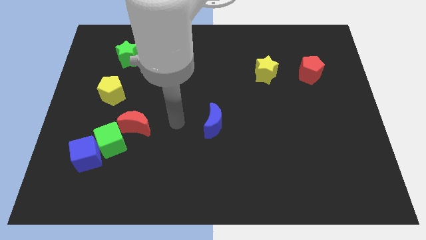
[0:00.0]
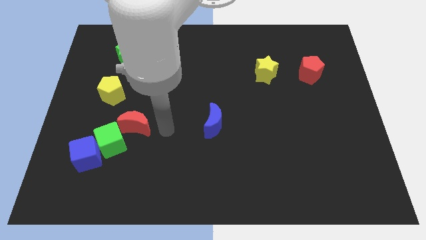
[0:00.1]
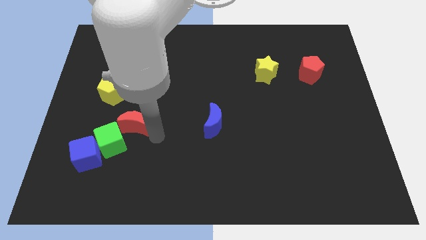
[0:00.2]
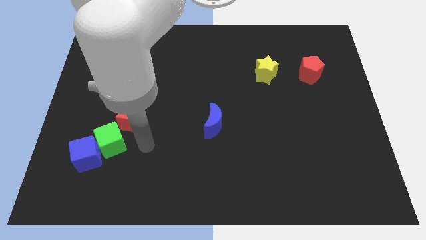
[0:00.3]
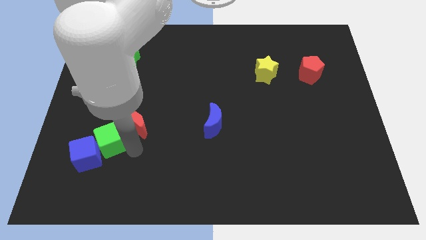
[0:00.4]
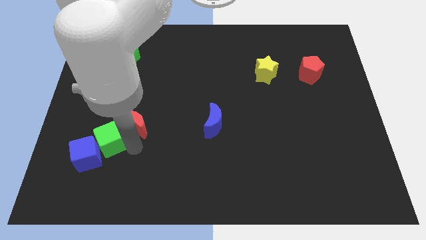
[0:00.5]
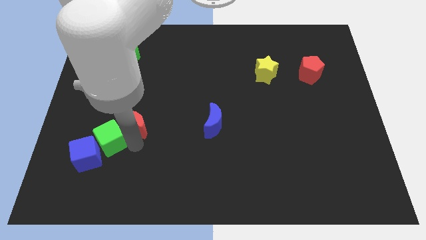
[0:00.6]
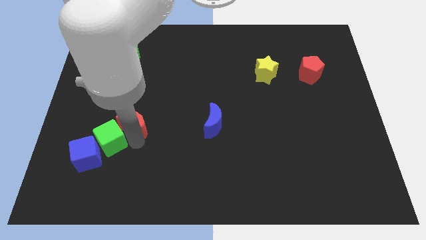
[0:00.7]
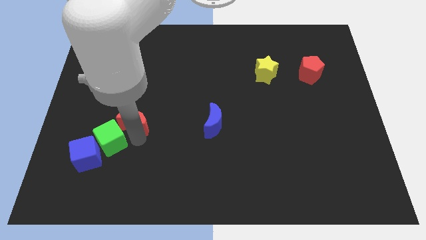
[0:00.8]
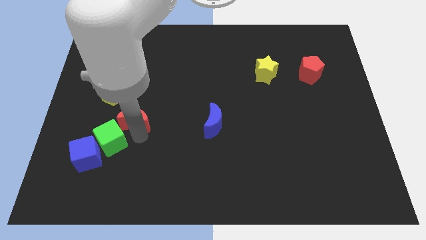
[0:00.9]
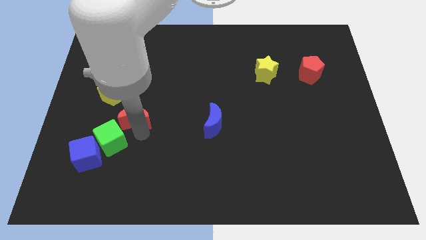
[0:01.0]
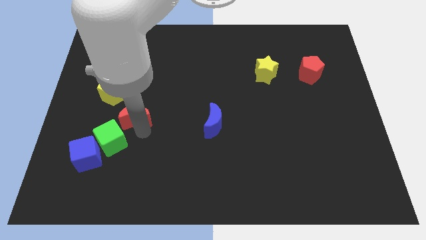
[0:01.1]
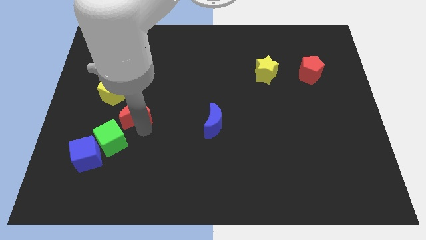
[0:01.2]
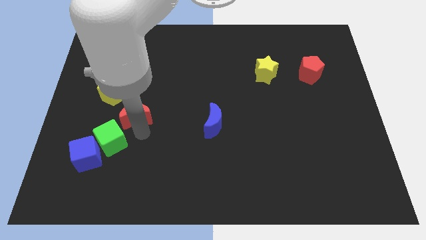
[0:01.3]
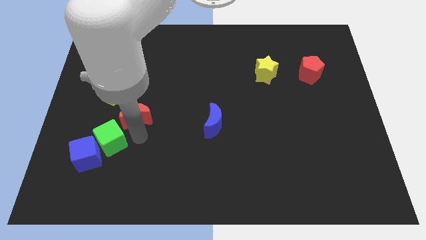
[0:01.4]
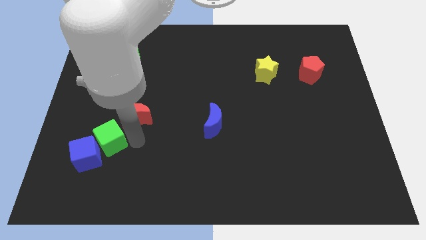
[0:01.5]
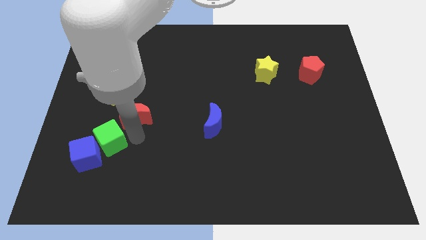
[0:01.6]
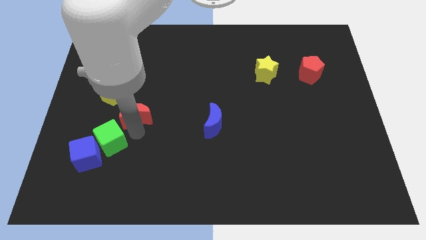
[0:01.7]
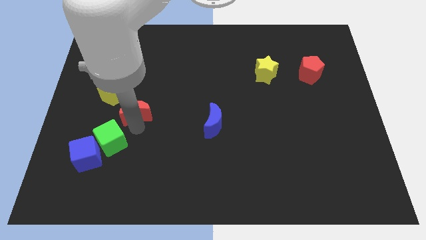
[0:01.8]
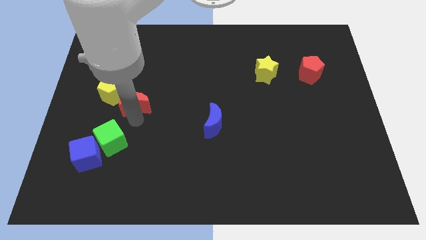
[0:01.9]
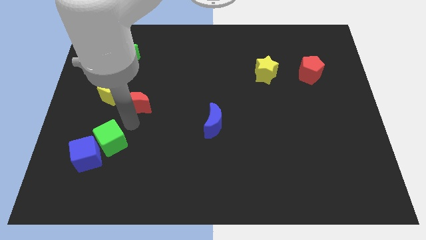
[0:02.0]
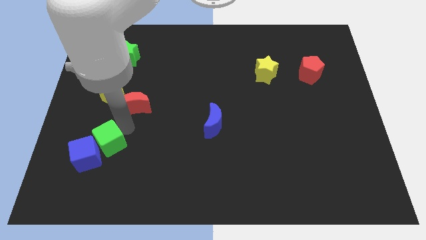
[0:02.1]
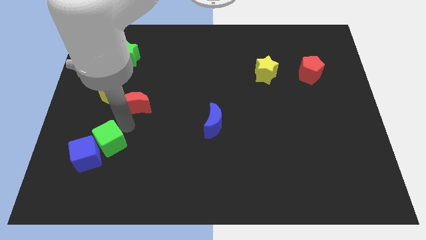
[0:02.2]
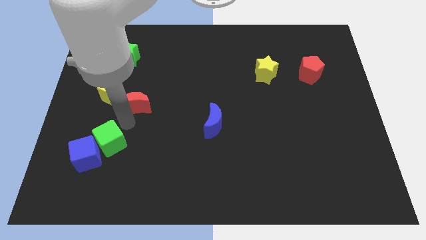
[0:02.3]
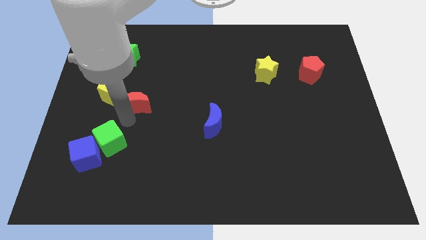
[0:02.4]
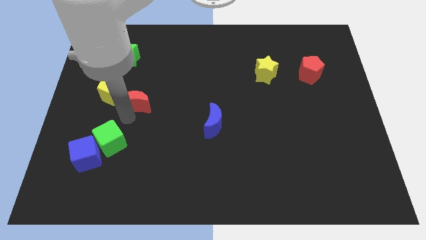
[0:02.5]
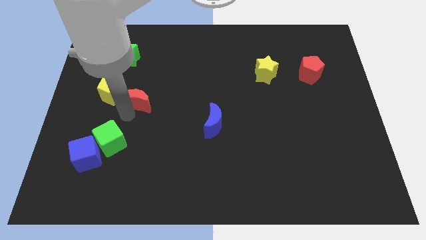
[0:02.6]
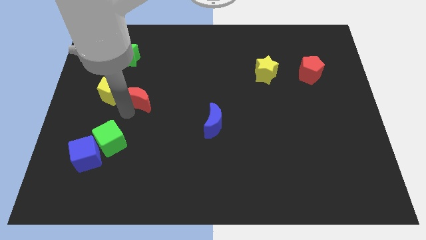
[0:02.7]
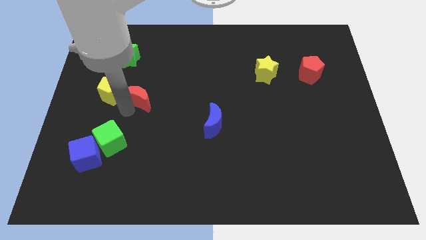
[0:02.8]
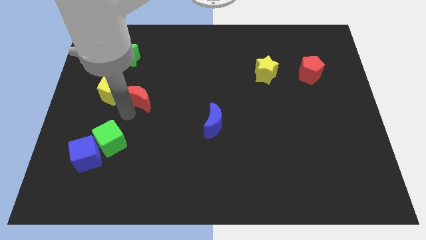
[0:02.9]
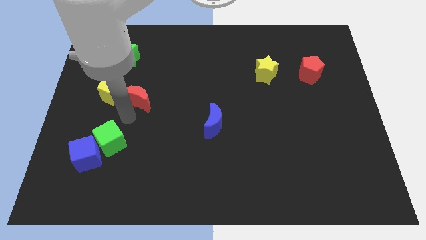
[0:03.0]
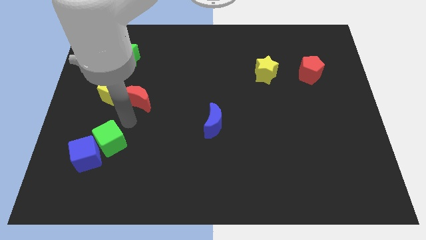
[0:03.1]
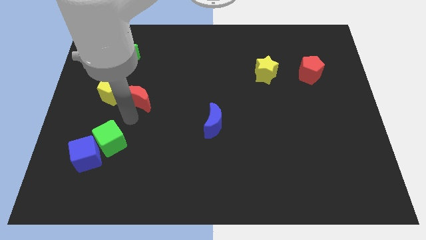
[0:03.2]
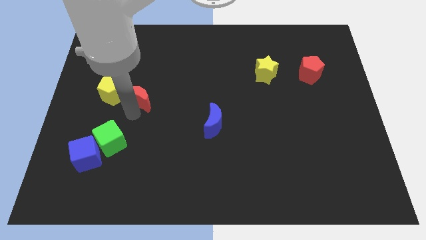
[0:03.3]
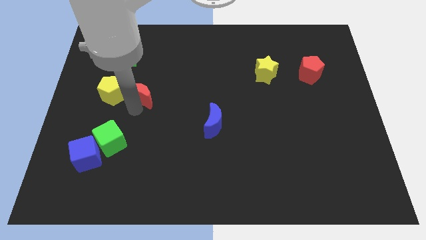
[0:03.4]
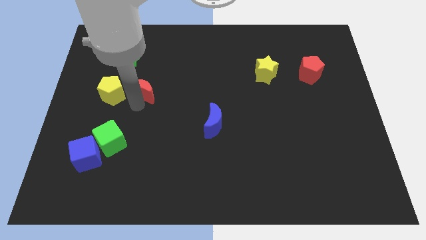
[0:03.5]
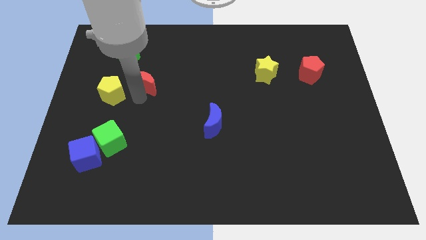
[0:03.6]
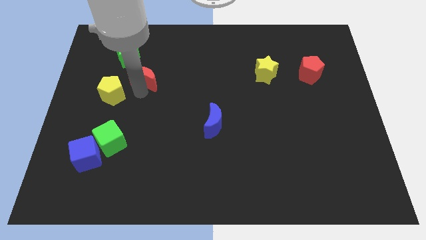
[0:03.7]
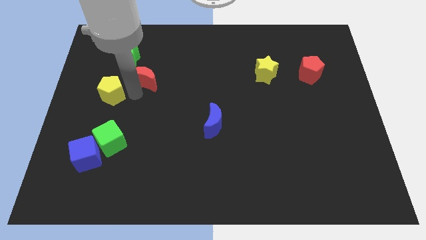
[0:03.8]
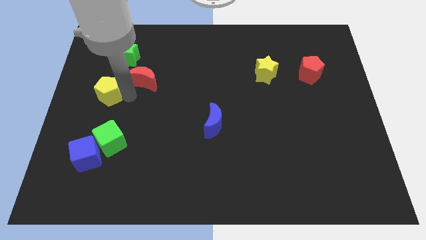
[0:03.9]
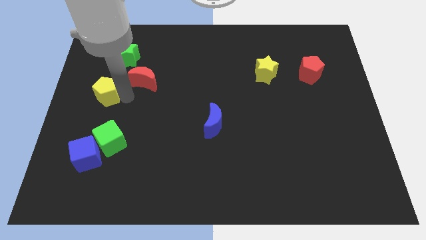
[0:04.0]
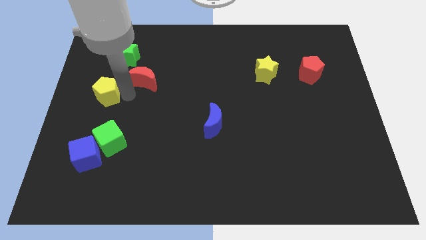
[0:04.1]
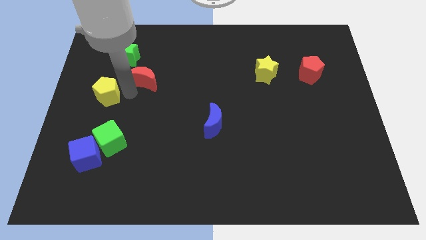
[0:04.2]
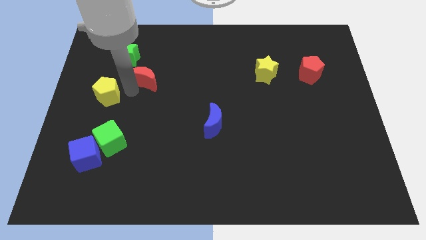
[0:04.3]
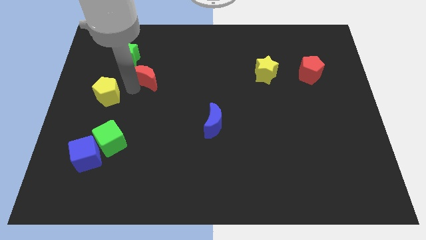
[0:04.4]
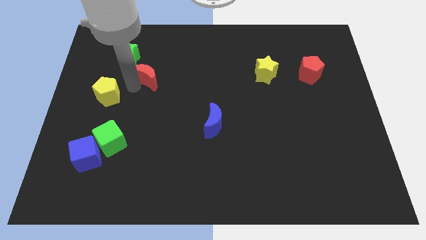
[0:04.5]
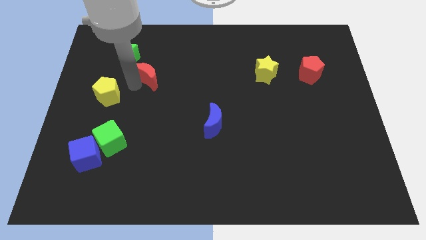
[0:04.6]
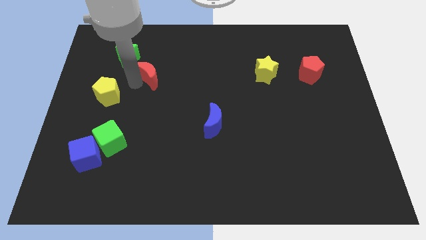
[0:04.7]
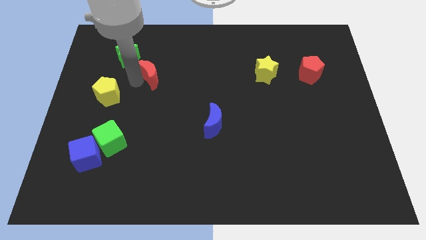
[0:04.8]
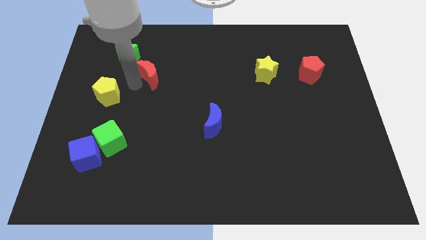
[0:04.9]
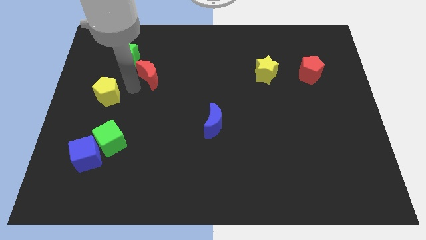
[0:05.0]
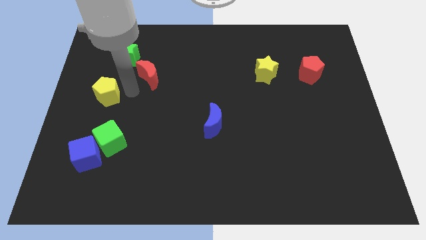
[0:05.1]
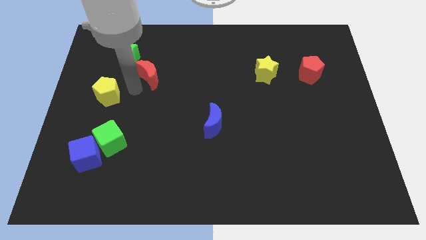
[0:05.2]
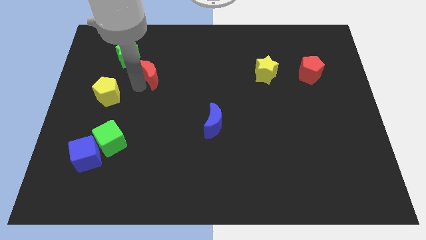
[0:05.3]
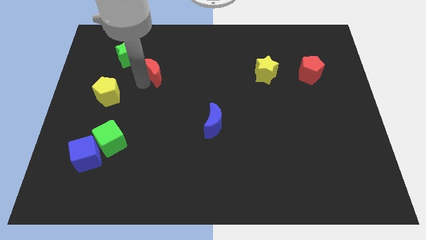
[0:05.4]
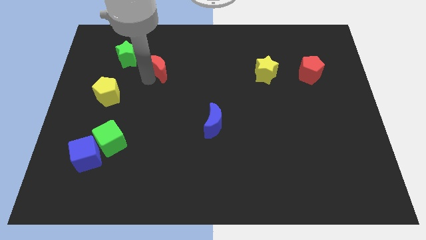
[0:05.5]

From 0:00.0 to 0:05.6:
put the red moon just right of the green star

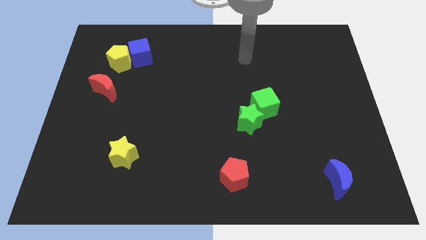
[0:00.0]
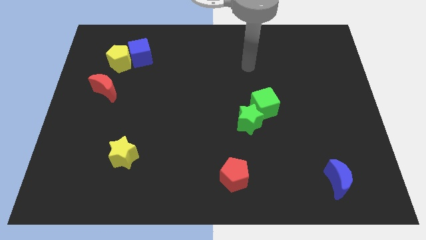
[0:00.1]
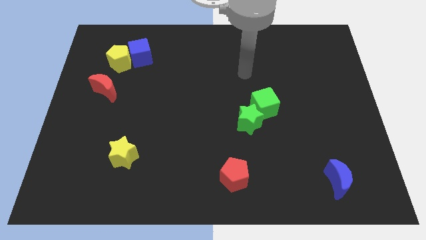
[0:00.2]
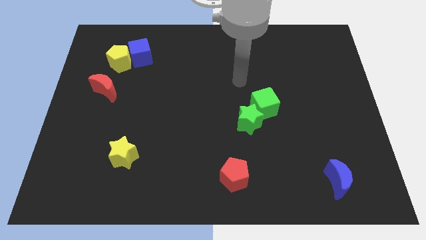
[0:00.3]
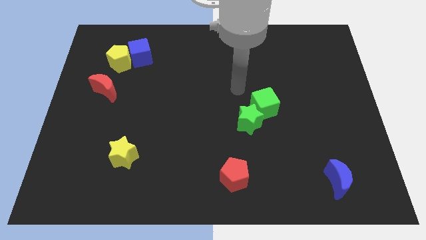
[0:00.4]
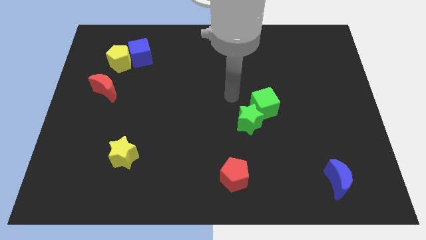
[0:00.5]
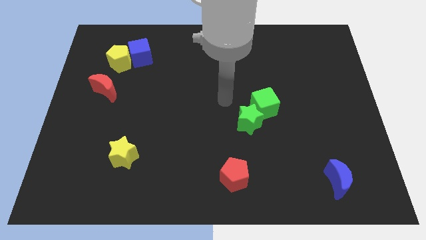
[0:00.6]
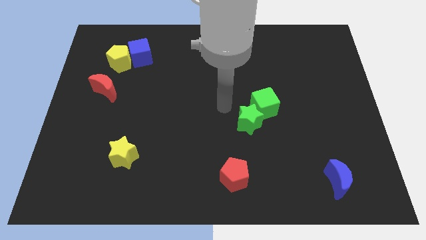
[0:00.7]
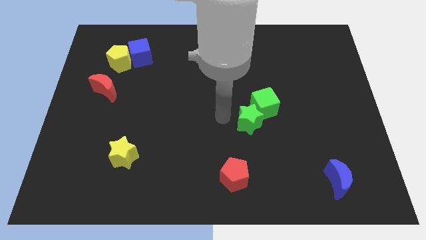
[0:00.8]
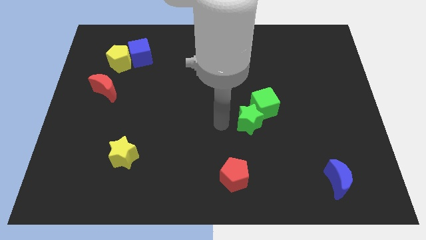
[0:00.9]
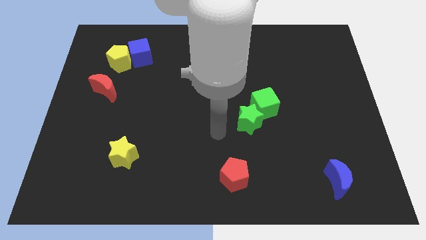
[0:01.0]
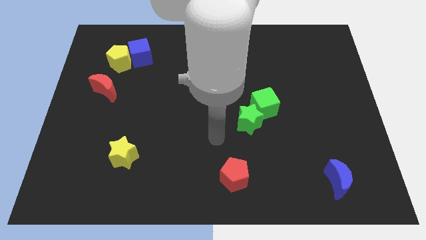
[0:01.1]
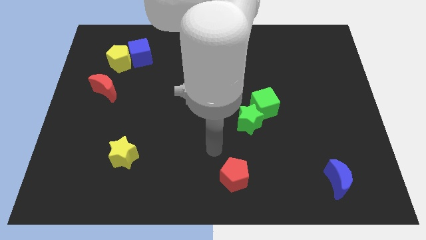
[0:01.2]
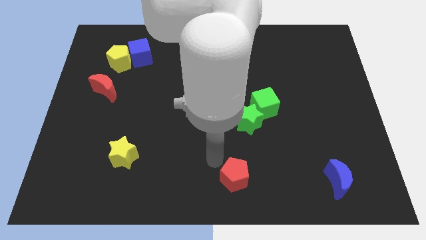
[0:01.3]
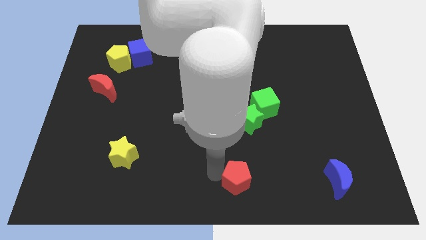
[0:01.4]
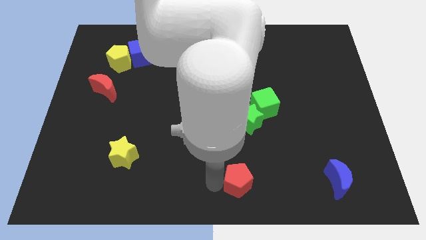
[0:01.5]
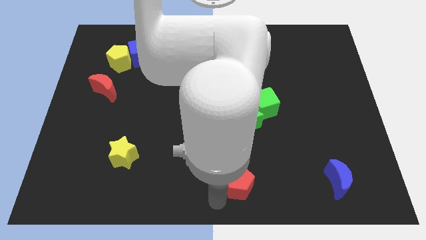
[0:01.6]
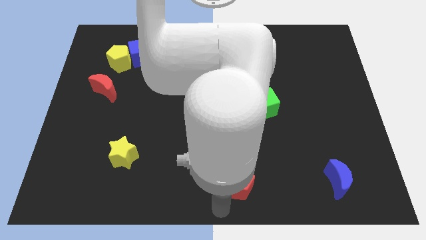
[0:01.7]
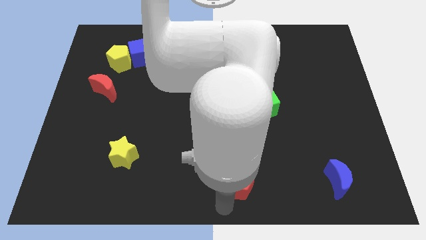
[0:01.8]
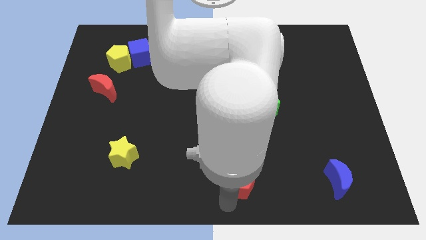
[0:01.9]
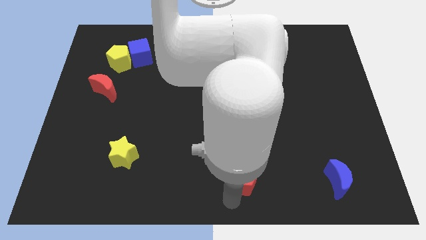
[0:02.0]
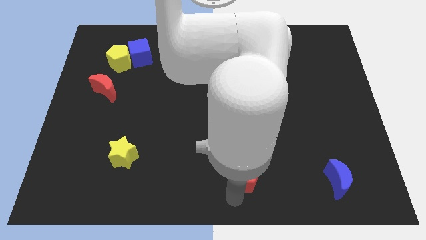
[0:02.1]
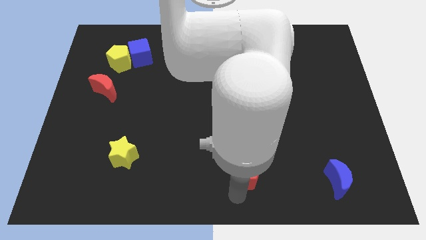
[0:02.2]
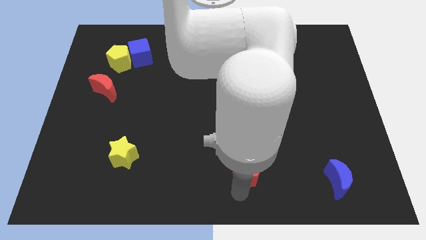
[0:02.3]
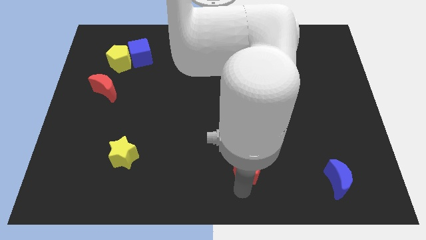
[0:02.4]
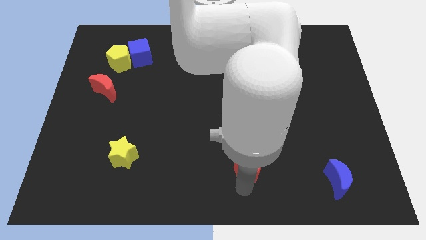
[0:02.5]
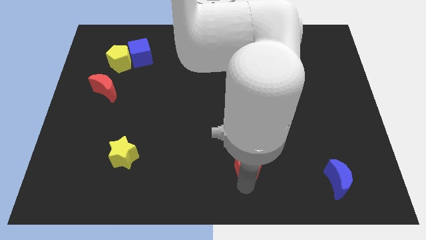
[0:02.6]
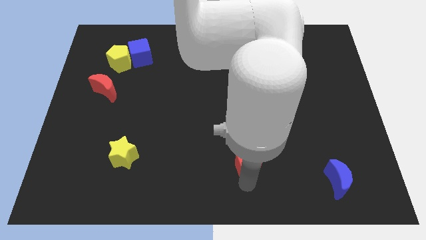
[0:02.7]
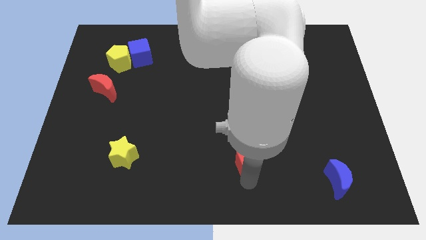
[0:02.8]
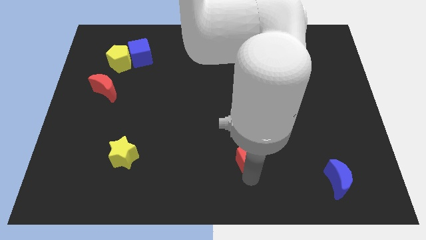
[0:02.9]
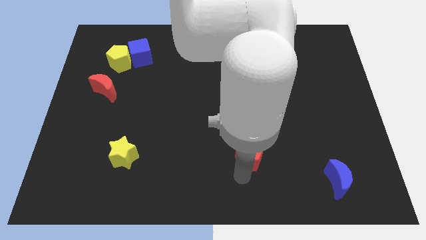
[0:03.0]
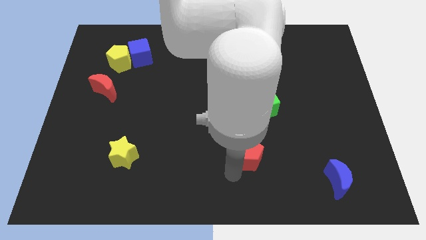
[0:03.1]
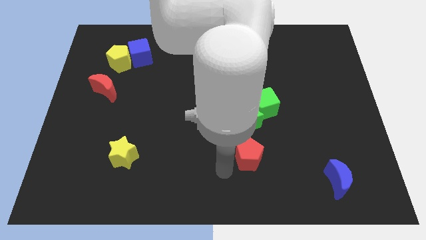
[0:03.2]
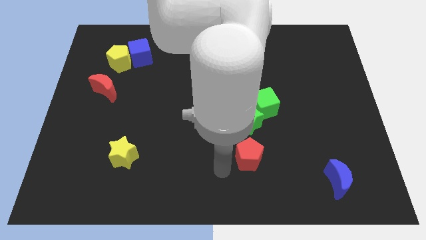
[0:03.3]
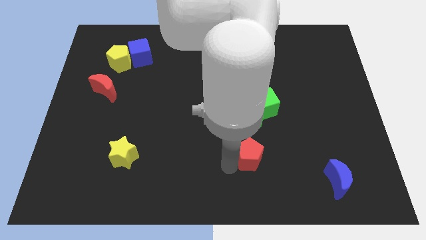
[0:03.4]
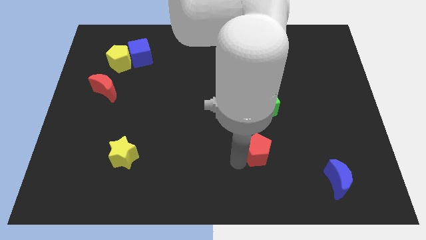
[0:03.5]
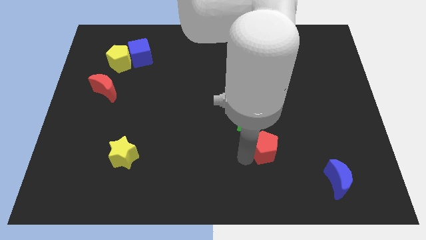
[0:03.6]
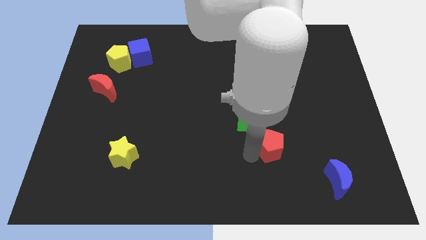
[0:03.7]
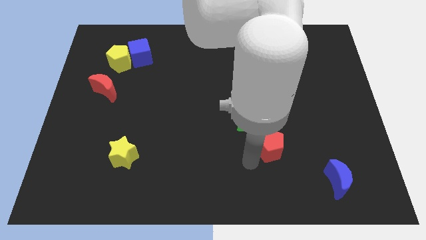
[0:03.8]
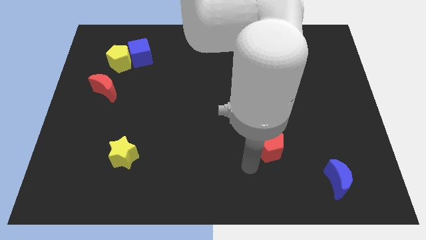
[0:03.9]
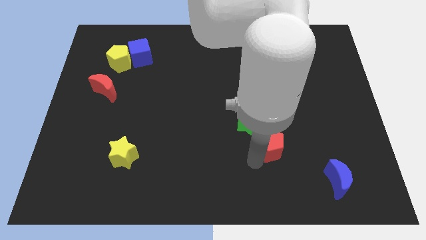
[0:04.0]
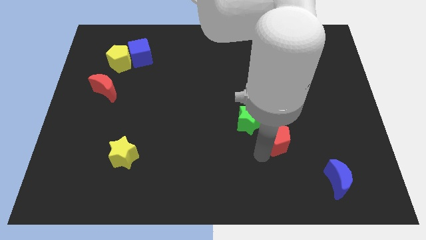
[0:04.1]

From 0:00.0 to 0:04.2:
put the red pentagon to the right of the green star
